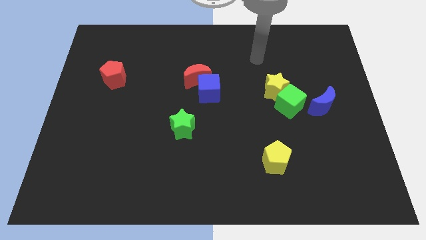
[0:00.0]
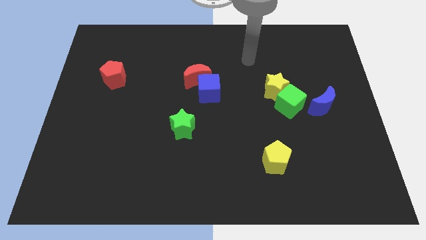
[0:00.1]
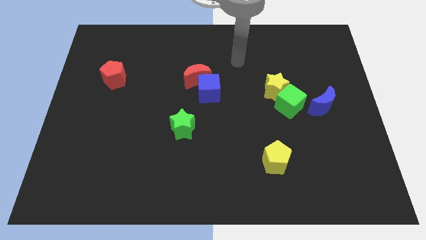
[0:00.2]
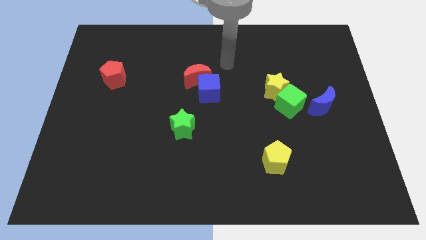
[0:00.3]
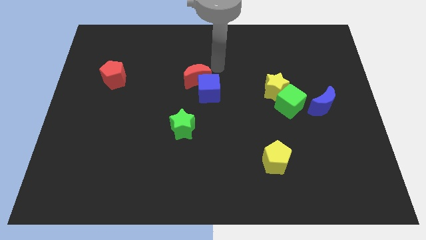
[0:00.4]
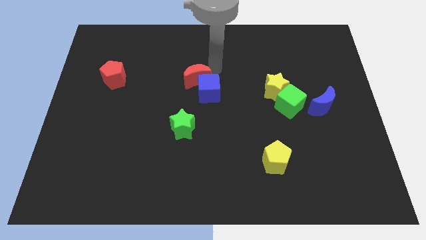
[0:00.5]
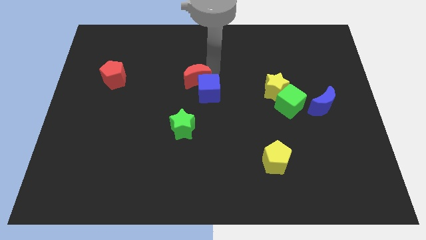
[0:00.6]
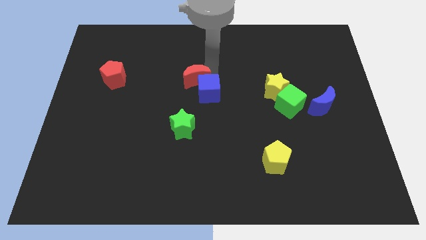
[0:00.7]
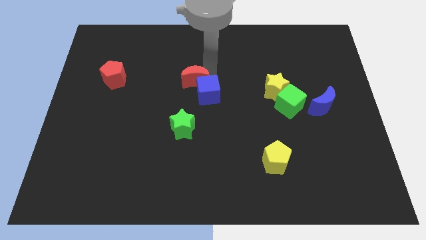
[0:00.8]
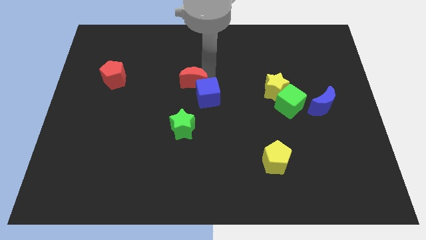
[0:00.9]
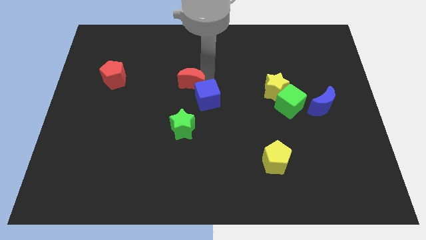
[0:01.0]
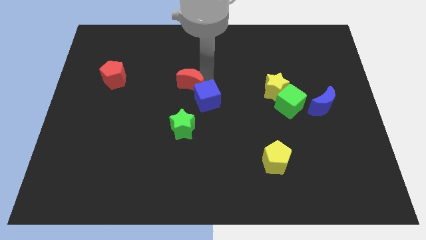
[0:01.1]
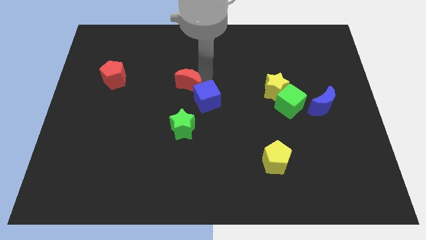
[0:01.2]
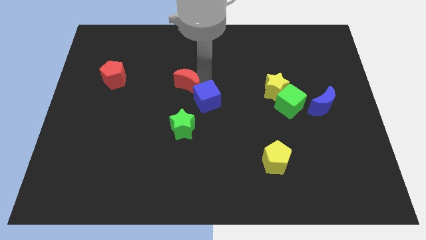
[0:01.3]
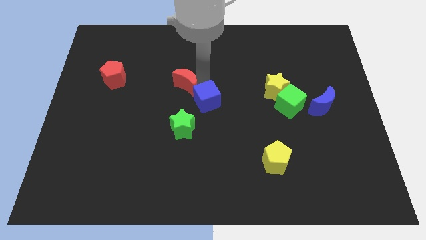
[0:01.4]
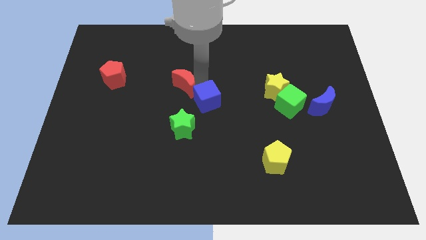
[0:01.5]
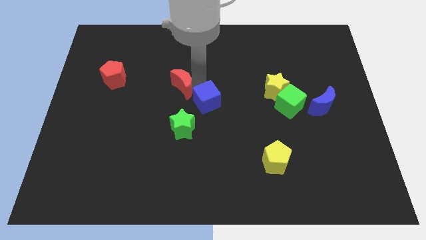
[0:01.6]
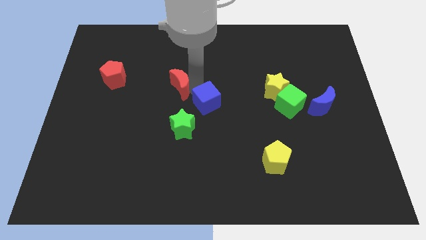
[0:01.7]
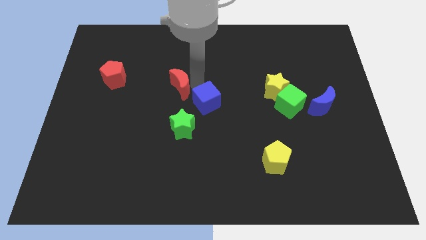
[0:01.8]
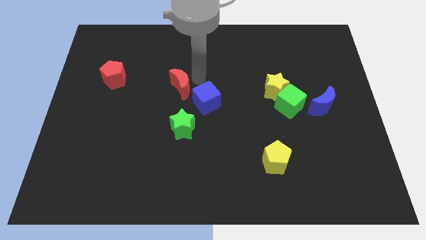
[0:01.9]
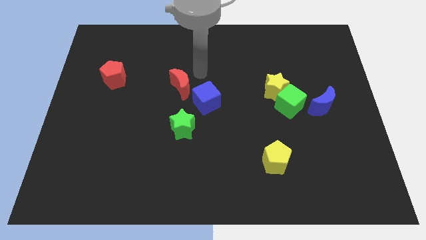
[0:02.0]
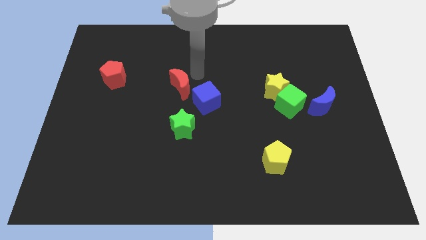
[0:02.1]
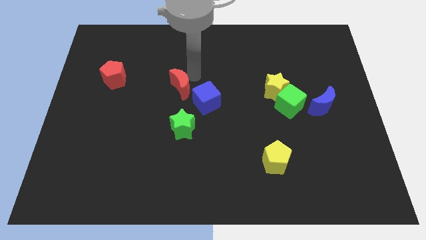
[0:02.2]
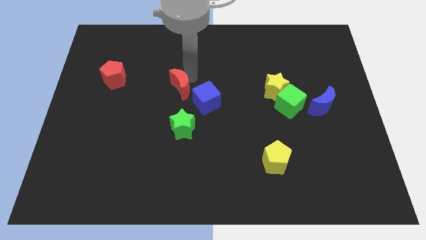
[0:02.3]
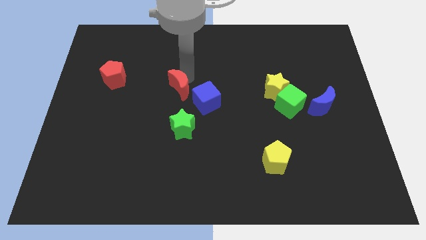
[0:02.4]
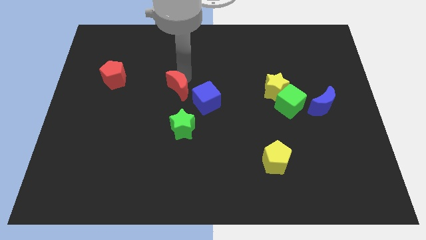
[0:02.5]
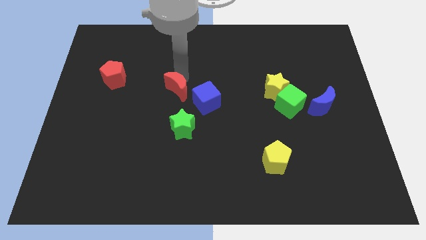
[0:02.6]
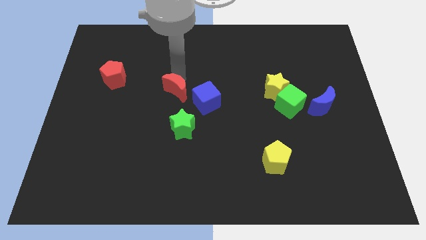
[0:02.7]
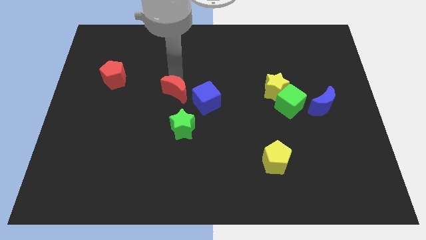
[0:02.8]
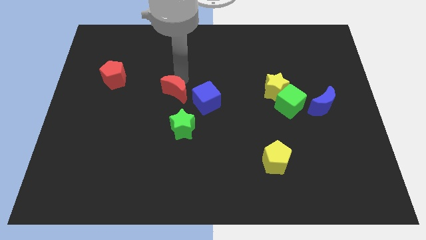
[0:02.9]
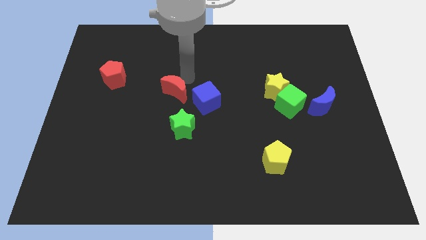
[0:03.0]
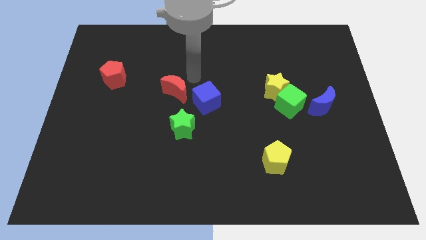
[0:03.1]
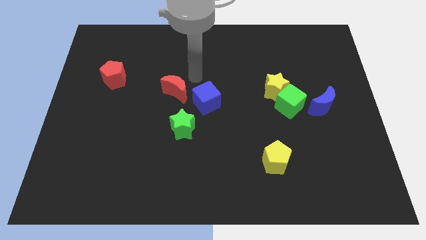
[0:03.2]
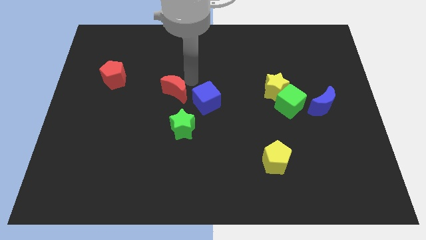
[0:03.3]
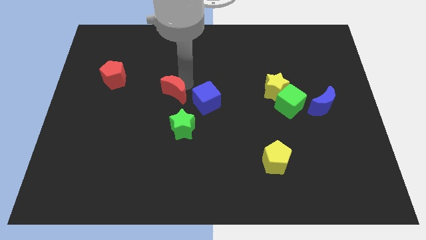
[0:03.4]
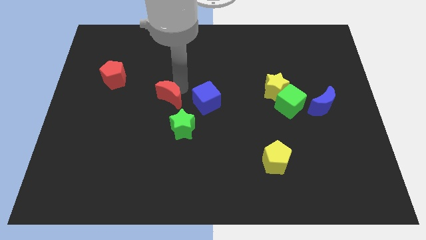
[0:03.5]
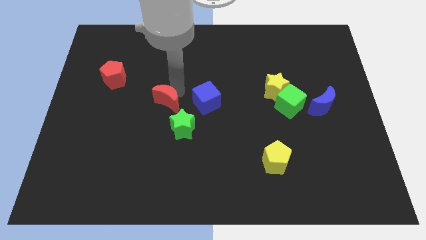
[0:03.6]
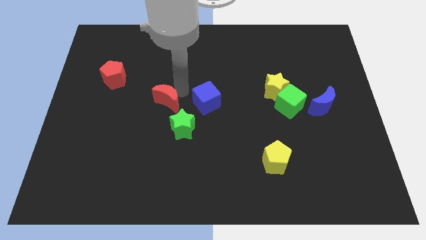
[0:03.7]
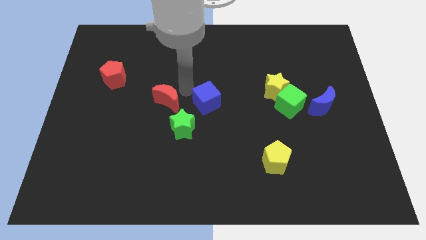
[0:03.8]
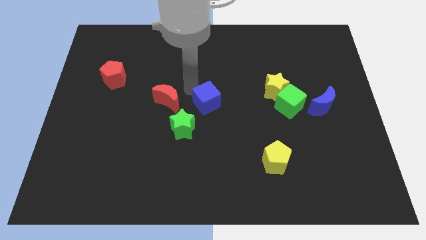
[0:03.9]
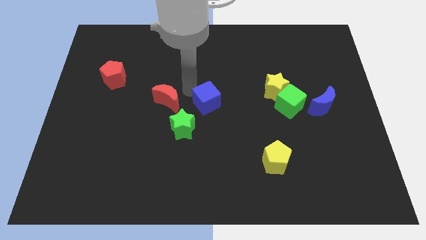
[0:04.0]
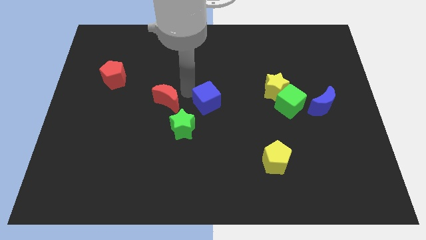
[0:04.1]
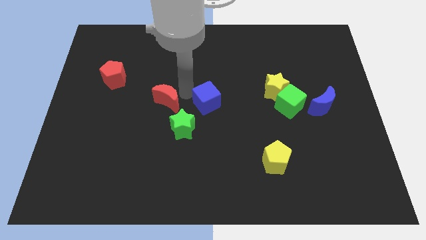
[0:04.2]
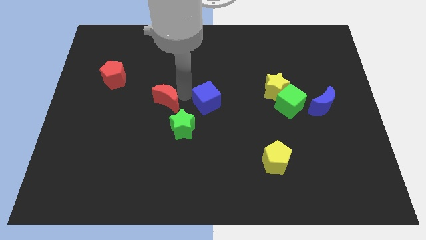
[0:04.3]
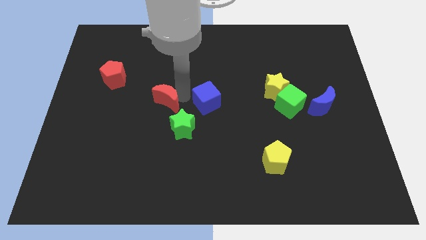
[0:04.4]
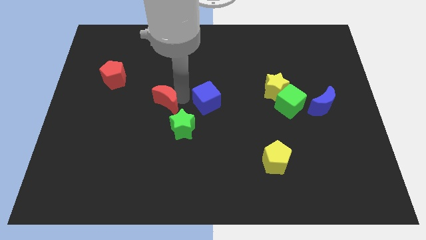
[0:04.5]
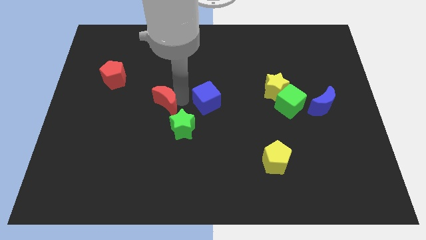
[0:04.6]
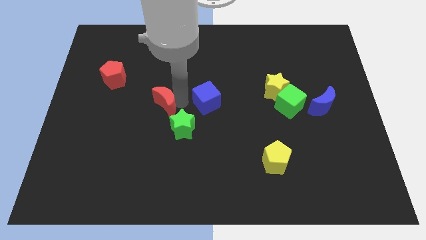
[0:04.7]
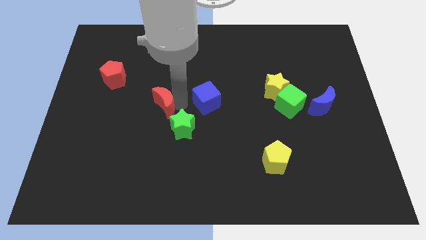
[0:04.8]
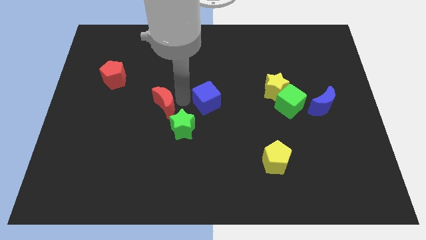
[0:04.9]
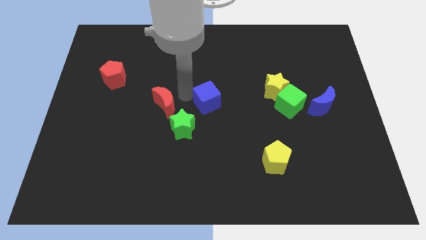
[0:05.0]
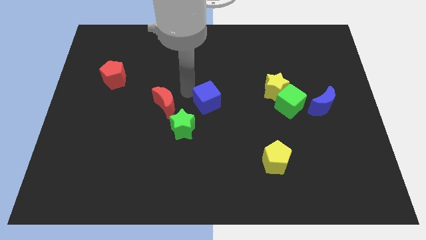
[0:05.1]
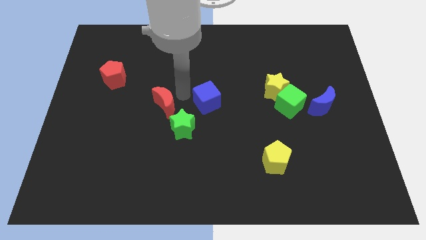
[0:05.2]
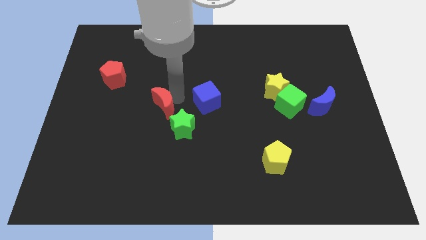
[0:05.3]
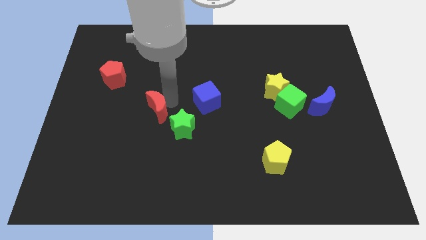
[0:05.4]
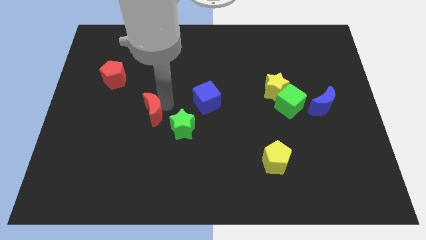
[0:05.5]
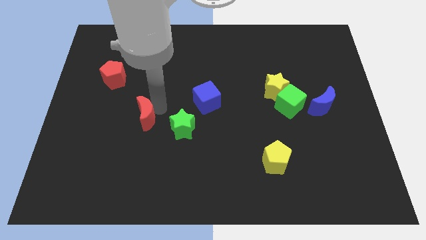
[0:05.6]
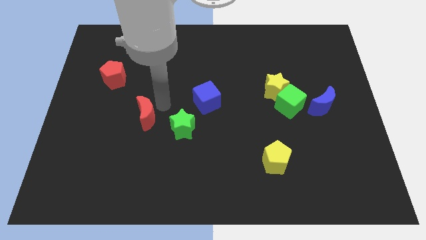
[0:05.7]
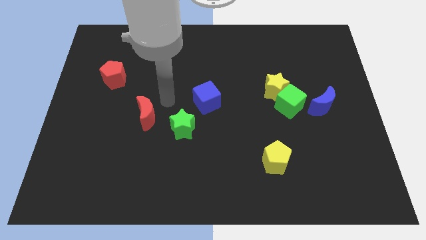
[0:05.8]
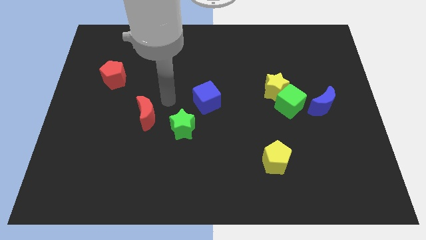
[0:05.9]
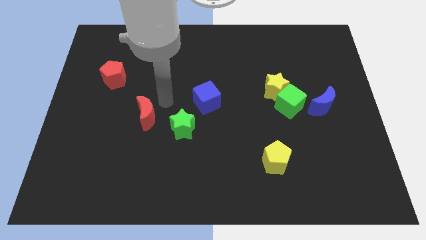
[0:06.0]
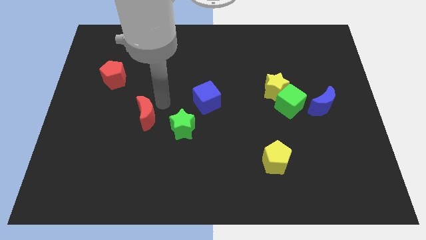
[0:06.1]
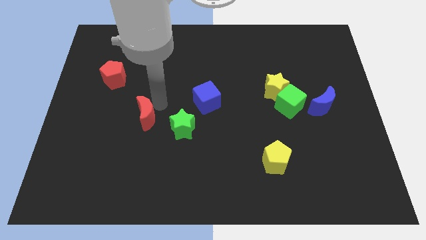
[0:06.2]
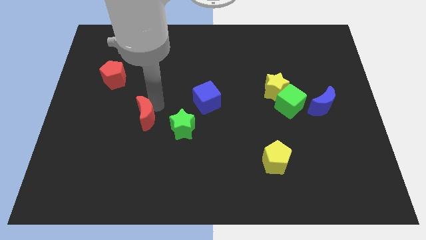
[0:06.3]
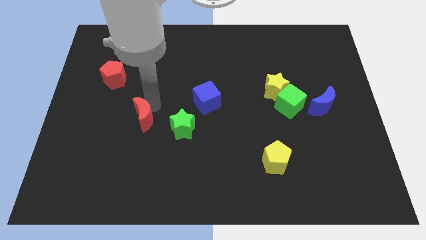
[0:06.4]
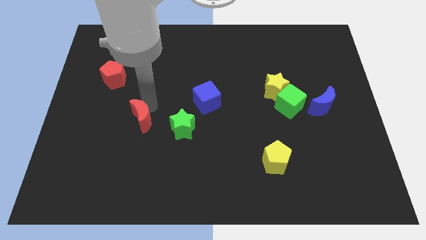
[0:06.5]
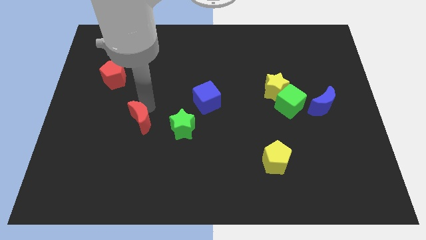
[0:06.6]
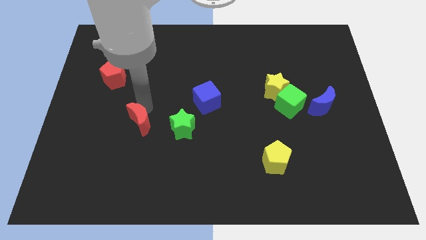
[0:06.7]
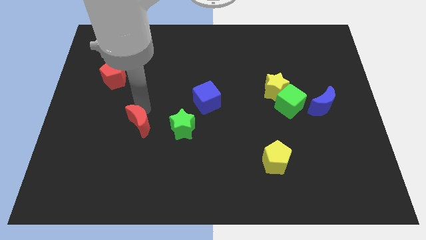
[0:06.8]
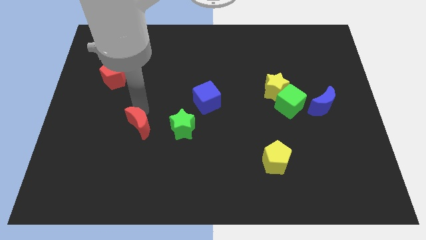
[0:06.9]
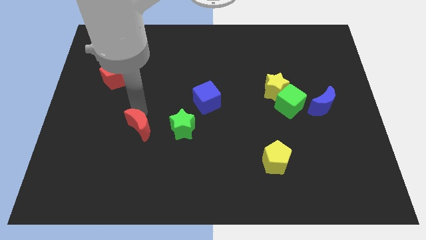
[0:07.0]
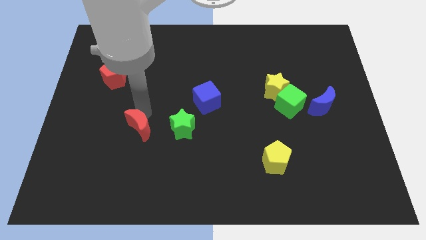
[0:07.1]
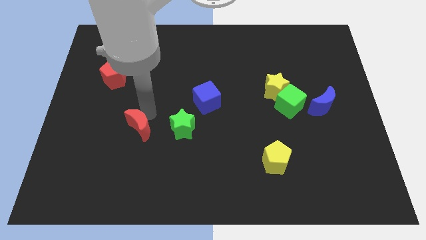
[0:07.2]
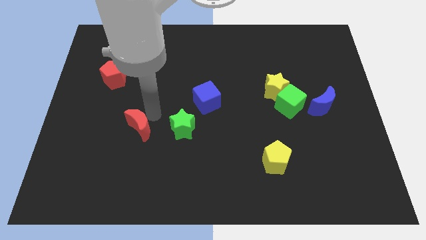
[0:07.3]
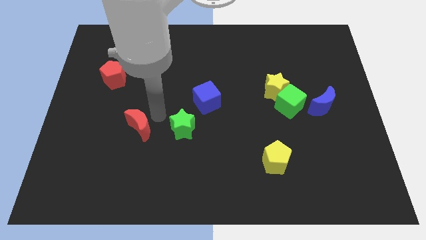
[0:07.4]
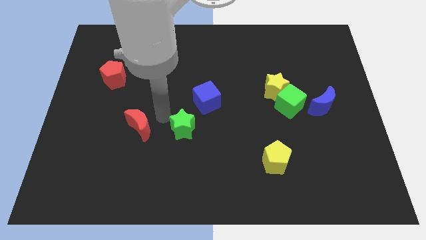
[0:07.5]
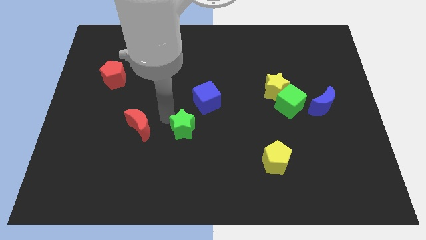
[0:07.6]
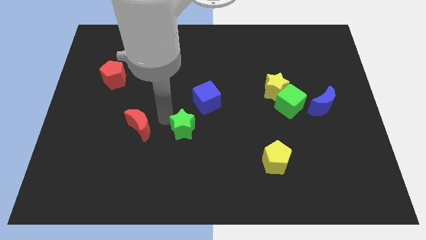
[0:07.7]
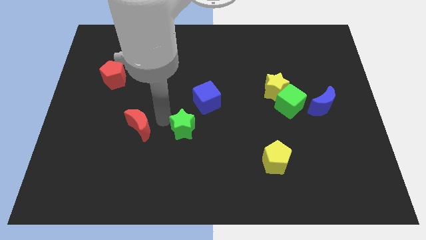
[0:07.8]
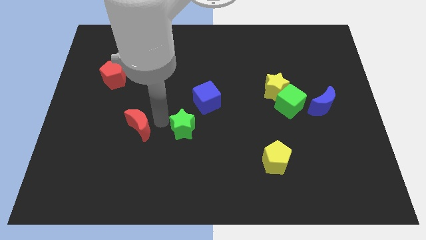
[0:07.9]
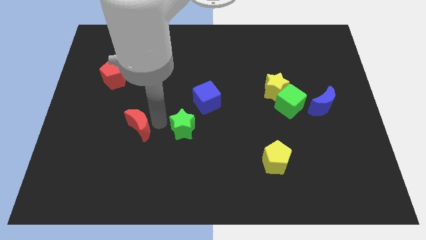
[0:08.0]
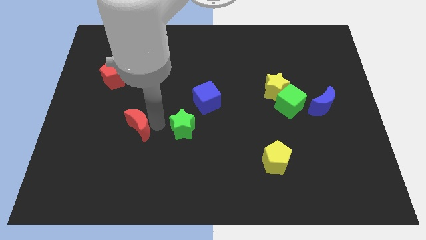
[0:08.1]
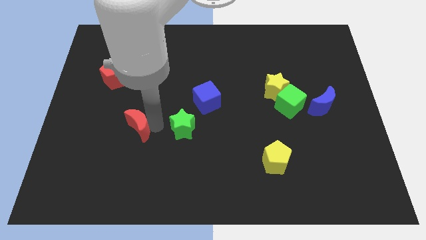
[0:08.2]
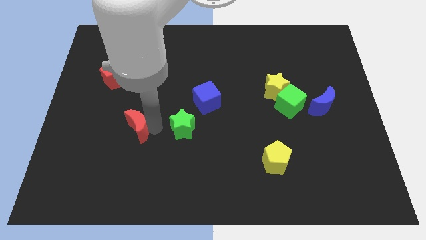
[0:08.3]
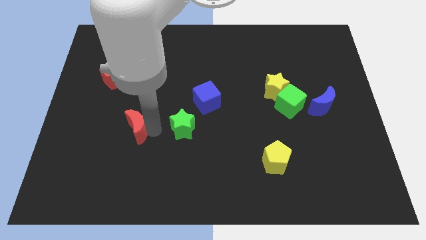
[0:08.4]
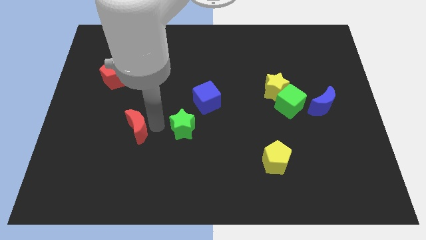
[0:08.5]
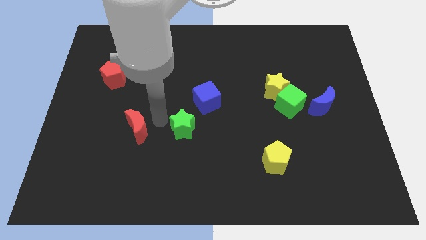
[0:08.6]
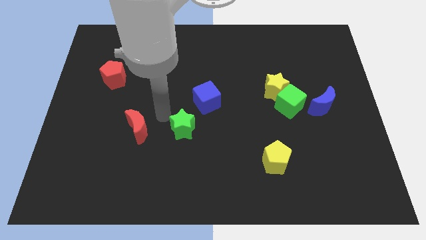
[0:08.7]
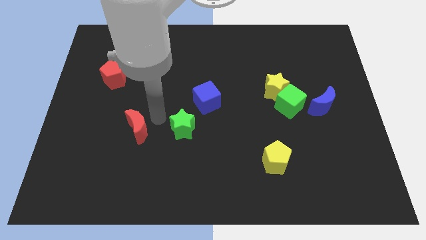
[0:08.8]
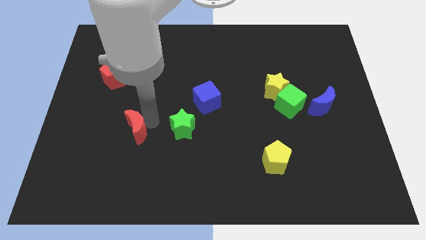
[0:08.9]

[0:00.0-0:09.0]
move the red moon down and to the left
